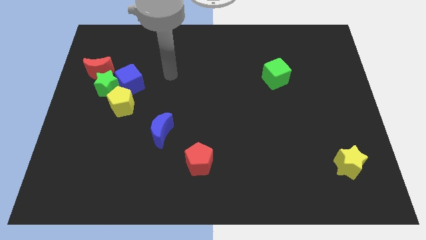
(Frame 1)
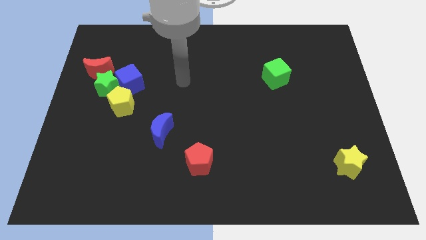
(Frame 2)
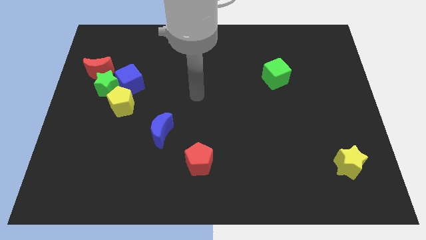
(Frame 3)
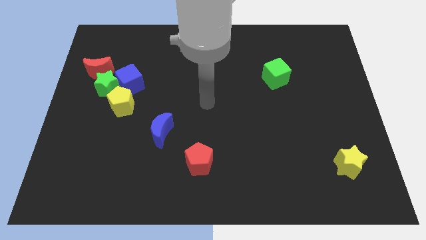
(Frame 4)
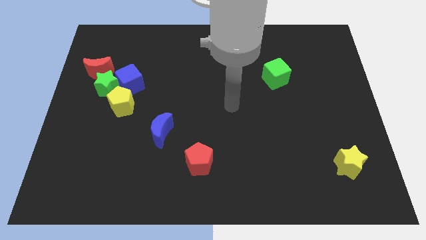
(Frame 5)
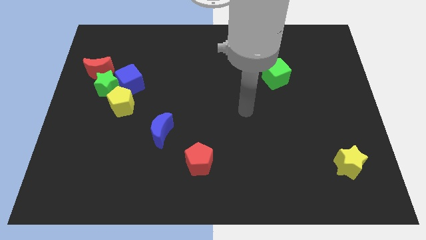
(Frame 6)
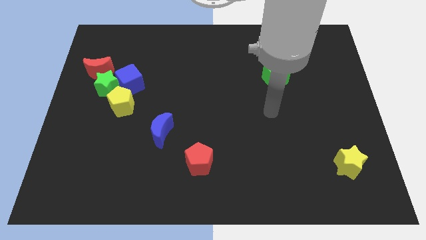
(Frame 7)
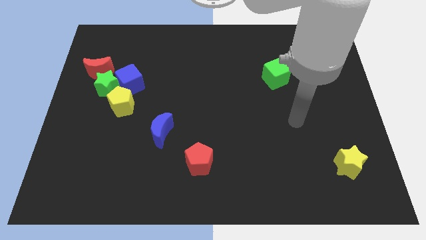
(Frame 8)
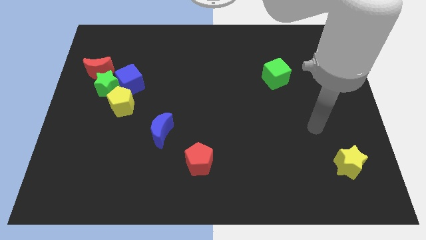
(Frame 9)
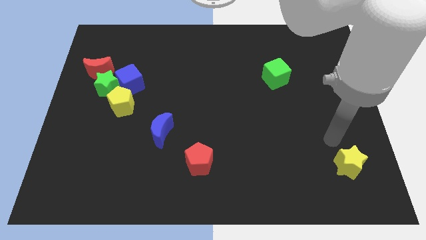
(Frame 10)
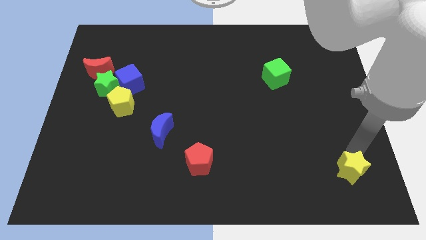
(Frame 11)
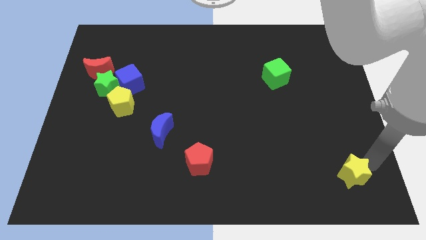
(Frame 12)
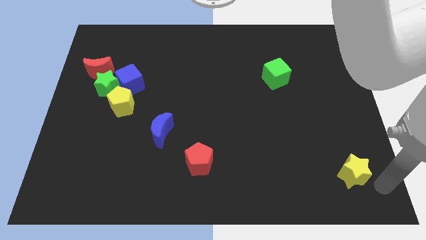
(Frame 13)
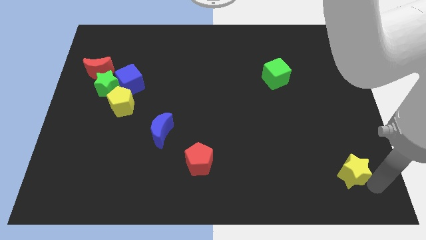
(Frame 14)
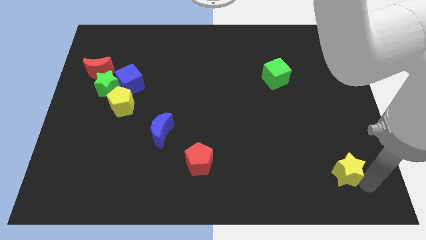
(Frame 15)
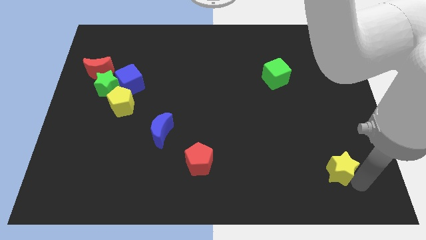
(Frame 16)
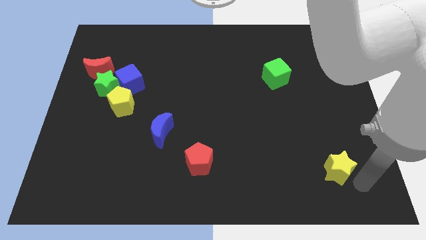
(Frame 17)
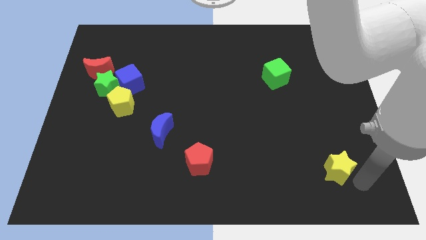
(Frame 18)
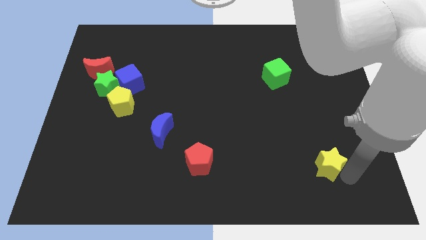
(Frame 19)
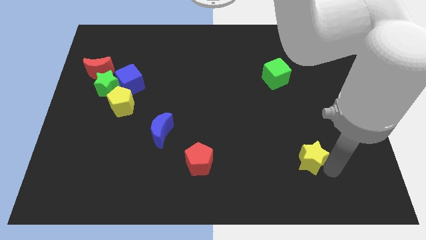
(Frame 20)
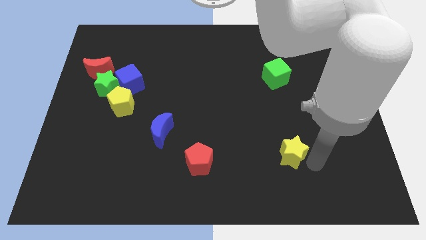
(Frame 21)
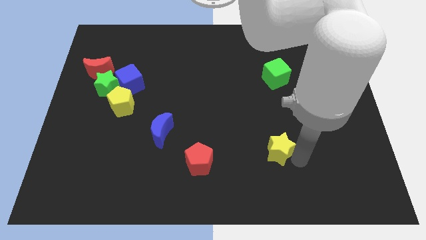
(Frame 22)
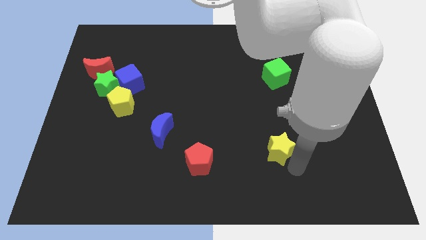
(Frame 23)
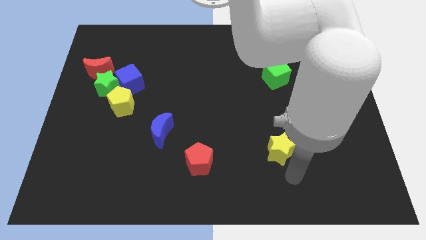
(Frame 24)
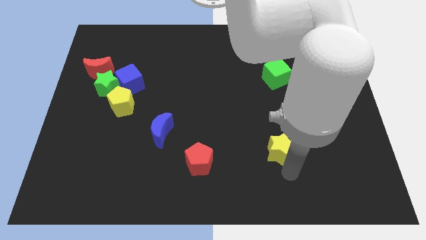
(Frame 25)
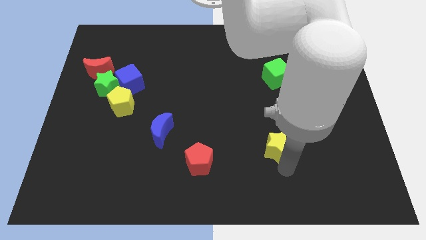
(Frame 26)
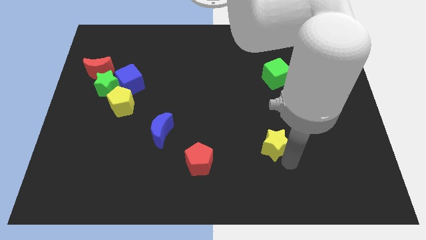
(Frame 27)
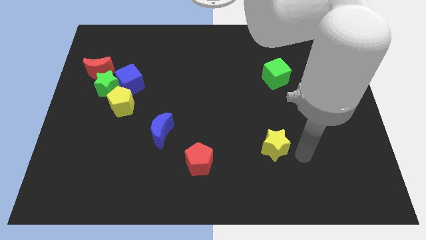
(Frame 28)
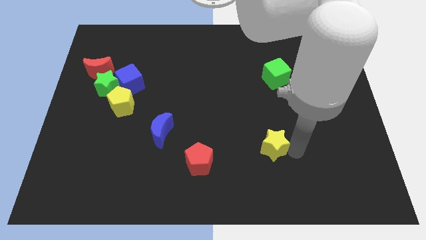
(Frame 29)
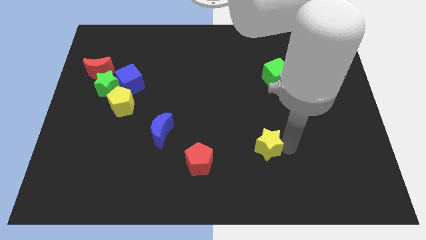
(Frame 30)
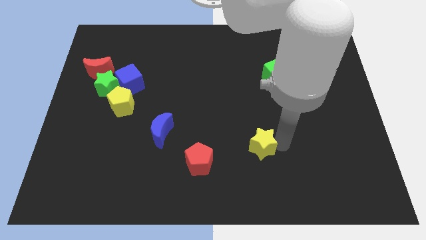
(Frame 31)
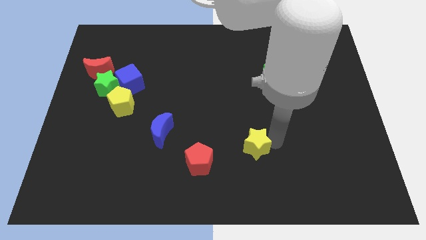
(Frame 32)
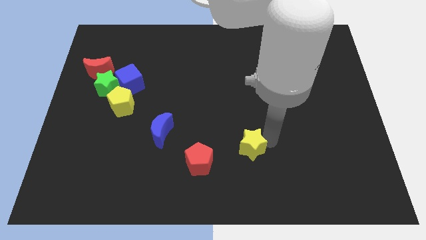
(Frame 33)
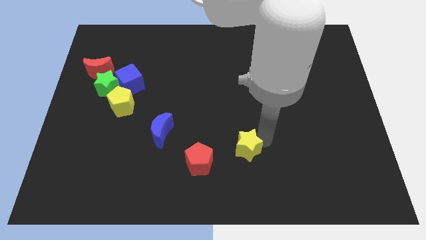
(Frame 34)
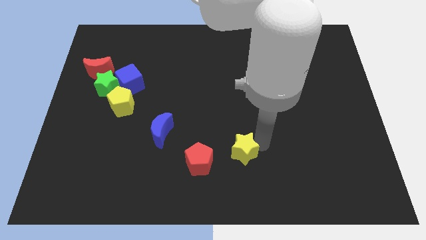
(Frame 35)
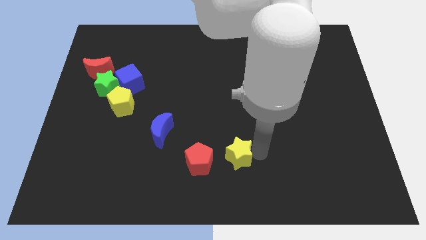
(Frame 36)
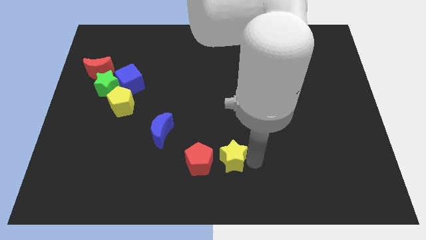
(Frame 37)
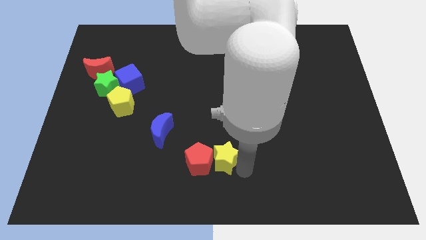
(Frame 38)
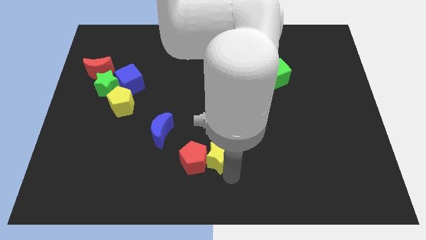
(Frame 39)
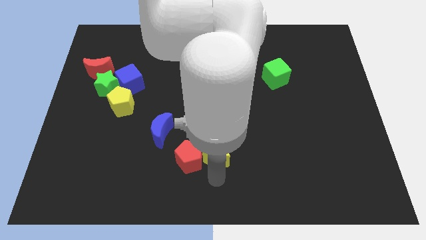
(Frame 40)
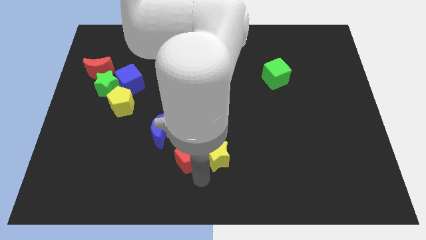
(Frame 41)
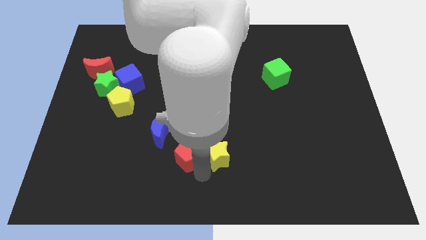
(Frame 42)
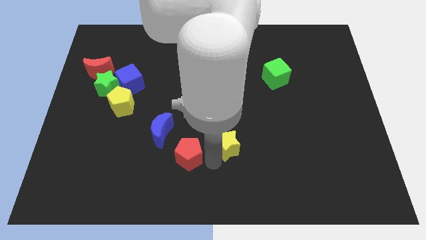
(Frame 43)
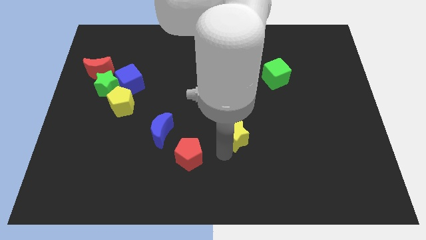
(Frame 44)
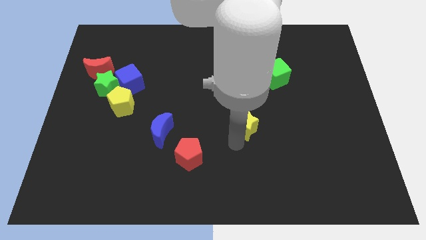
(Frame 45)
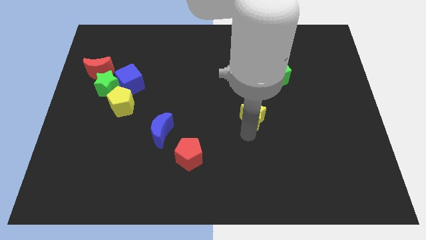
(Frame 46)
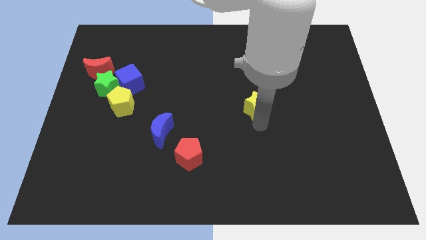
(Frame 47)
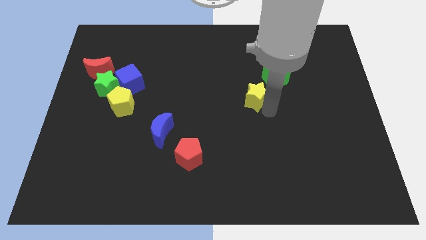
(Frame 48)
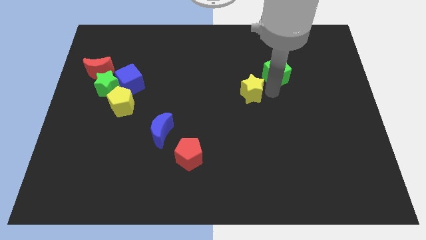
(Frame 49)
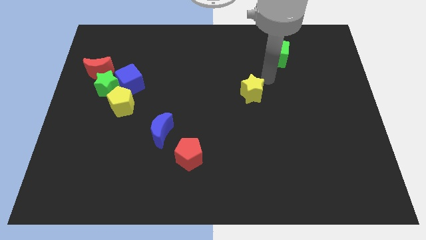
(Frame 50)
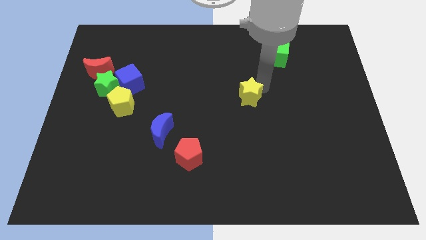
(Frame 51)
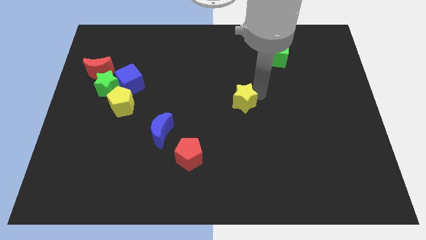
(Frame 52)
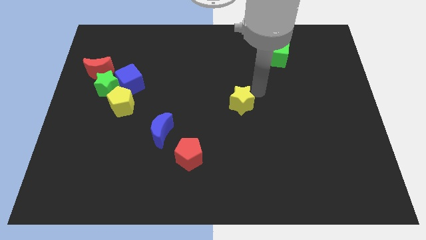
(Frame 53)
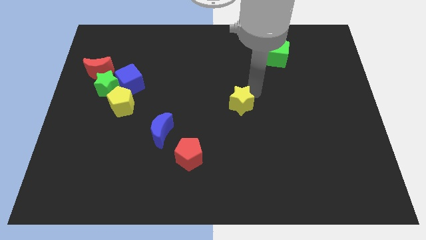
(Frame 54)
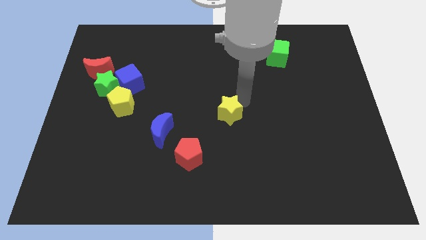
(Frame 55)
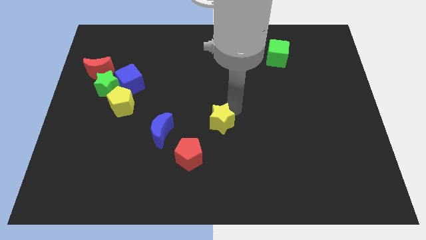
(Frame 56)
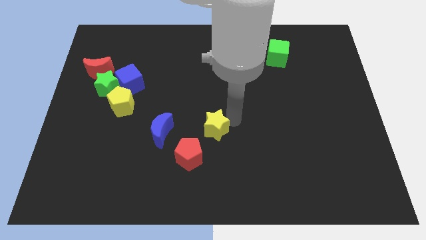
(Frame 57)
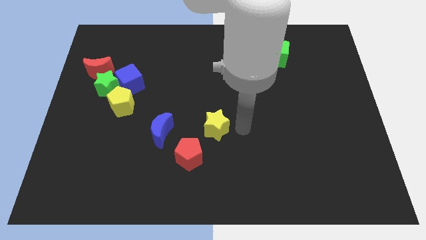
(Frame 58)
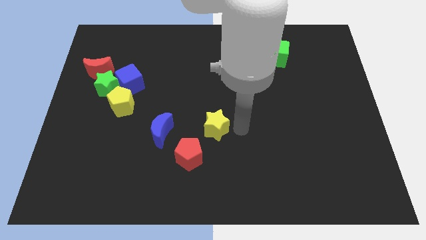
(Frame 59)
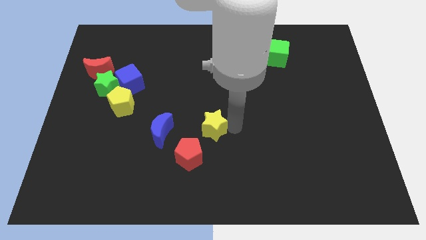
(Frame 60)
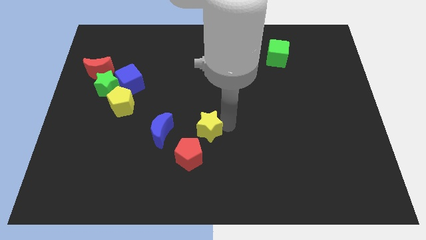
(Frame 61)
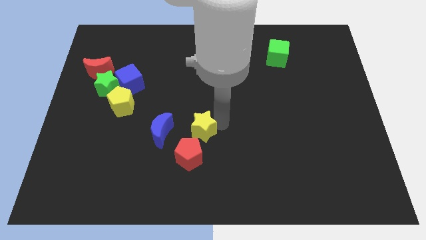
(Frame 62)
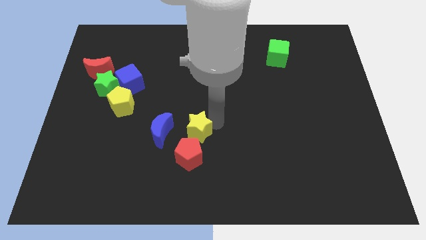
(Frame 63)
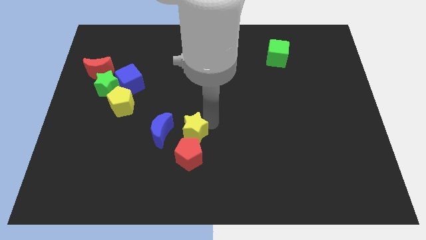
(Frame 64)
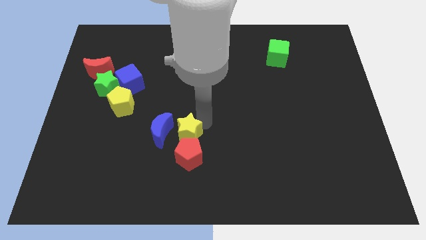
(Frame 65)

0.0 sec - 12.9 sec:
slide the yellow star close to the blue moon
